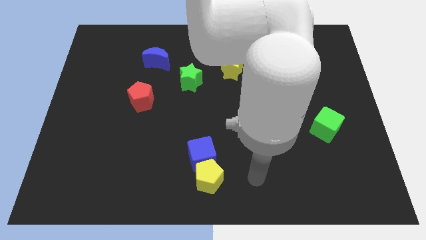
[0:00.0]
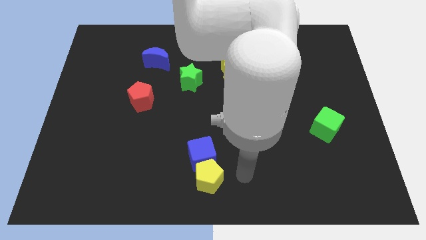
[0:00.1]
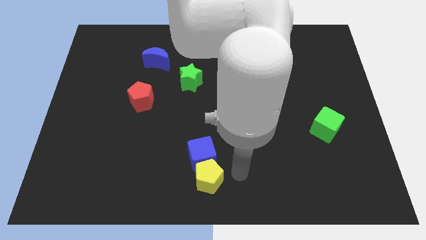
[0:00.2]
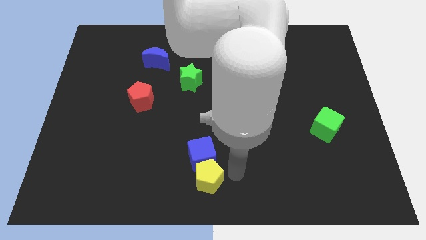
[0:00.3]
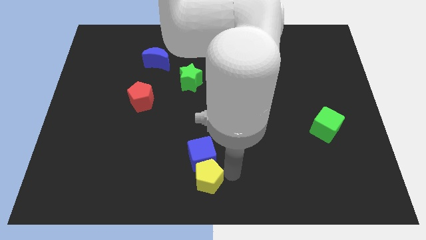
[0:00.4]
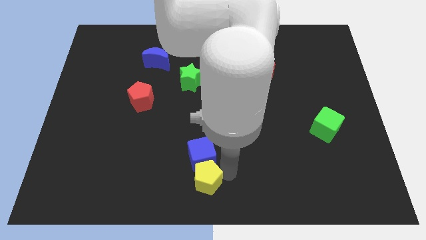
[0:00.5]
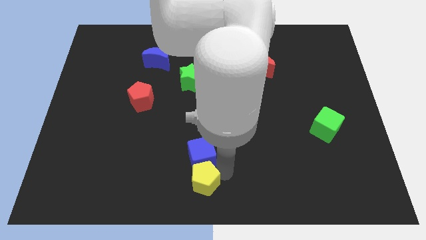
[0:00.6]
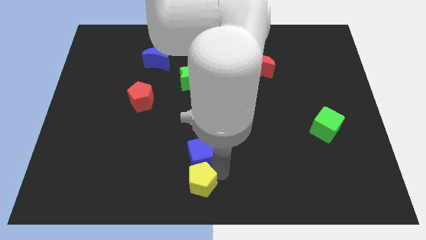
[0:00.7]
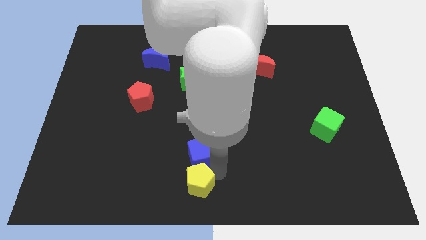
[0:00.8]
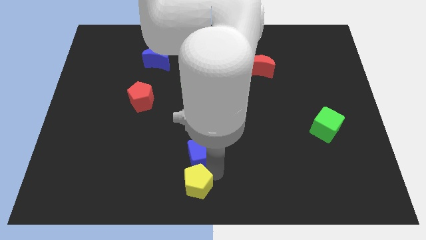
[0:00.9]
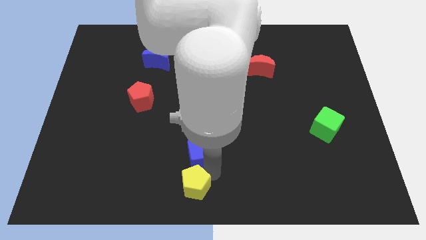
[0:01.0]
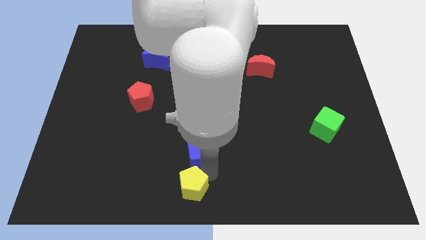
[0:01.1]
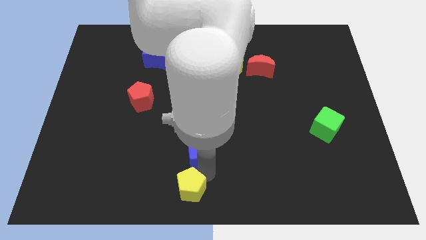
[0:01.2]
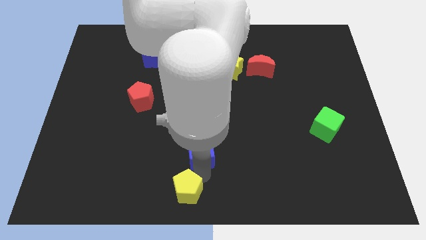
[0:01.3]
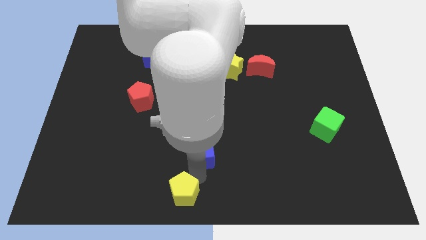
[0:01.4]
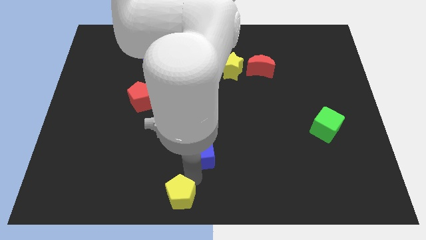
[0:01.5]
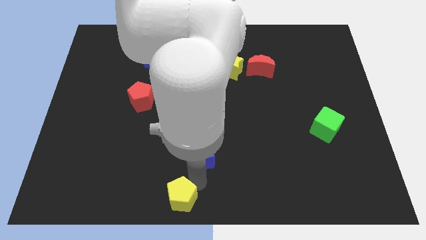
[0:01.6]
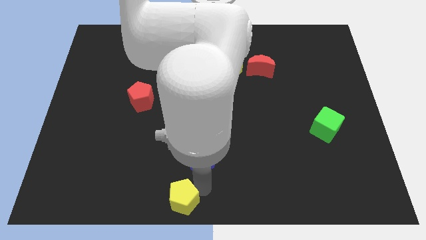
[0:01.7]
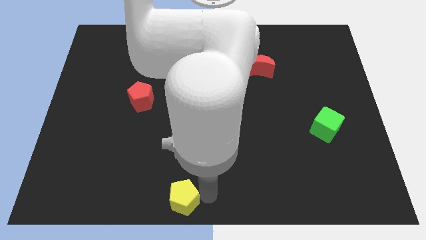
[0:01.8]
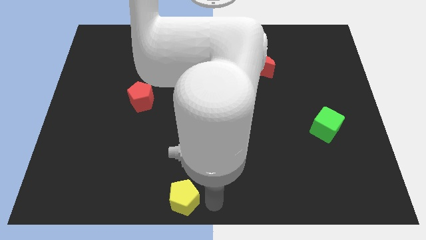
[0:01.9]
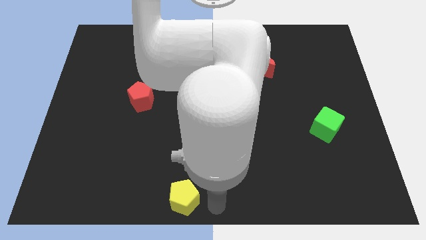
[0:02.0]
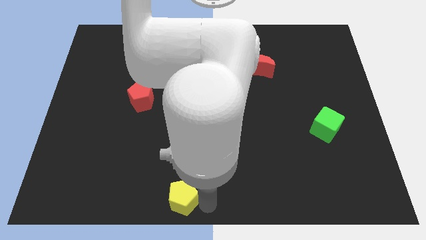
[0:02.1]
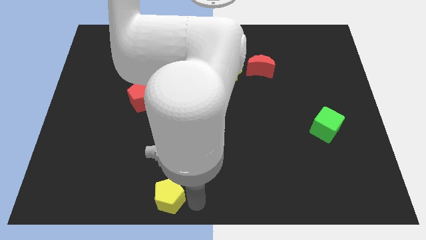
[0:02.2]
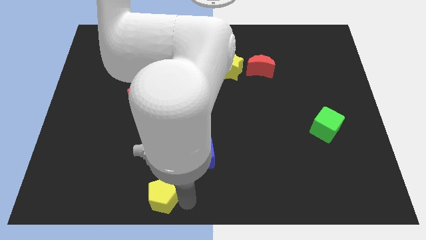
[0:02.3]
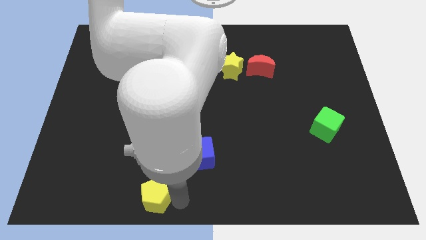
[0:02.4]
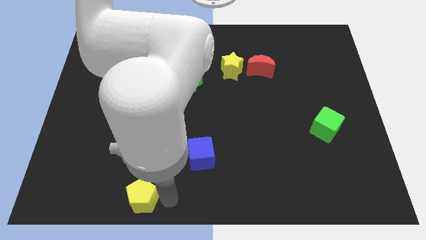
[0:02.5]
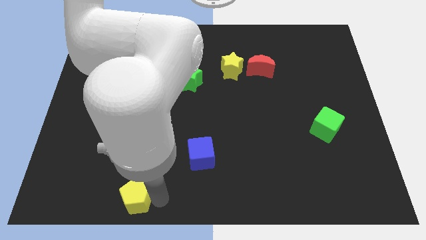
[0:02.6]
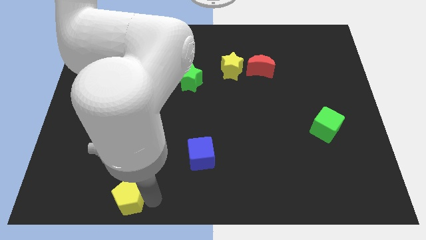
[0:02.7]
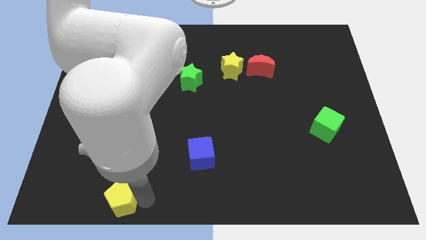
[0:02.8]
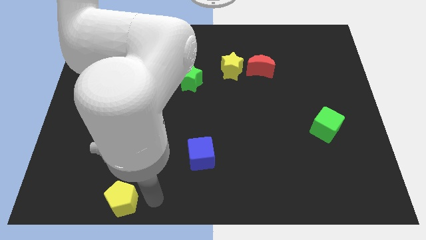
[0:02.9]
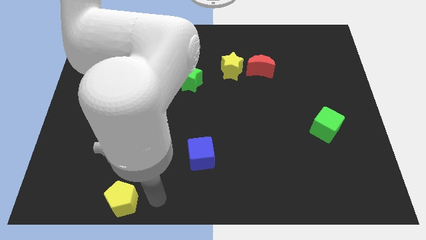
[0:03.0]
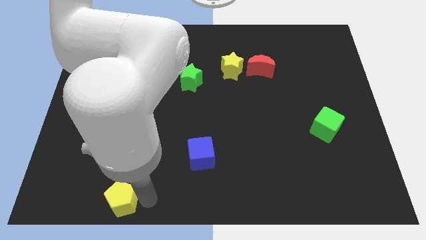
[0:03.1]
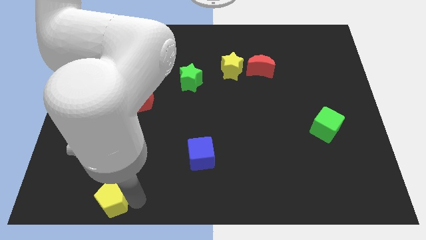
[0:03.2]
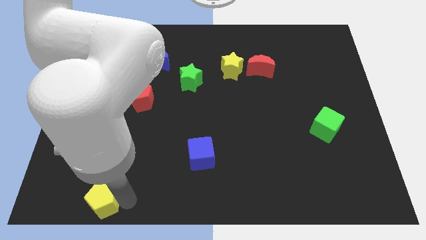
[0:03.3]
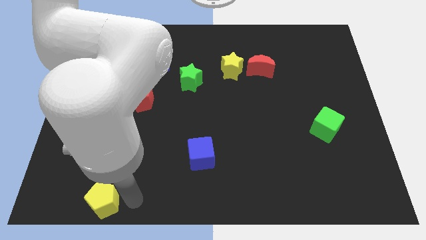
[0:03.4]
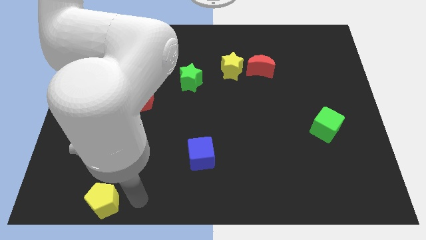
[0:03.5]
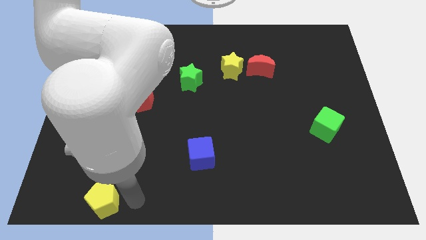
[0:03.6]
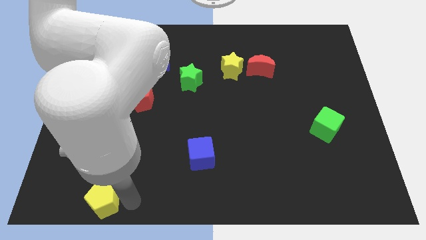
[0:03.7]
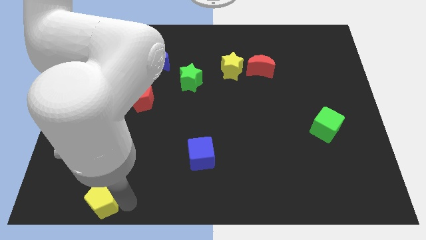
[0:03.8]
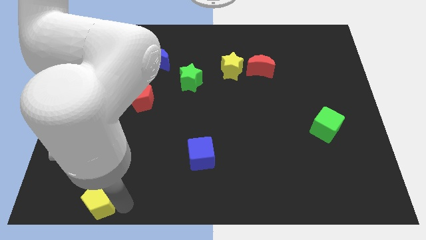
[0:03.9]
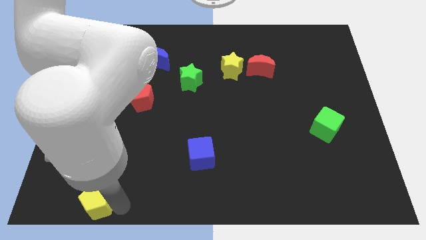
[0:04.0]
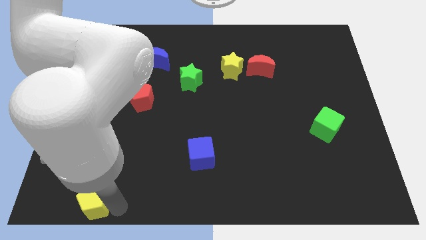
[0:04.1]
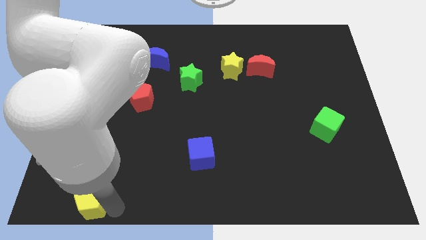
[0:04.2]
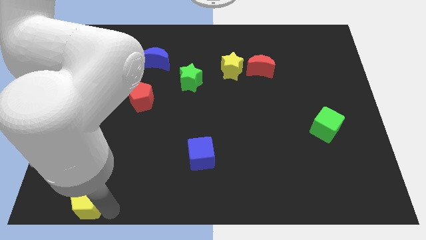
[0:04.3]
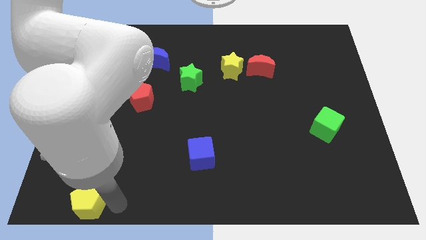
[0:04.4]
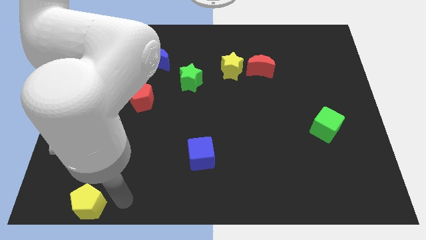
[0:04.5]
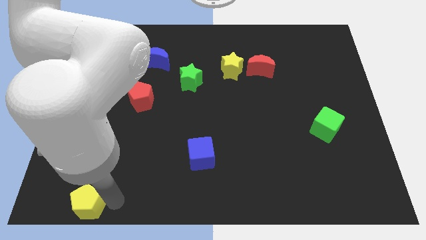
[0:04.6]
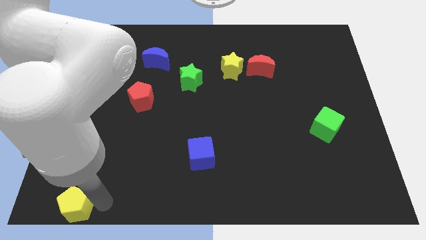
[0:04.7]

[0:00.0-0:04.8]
slide the yellow pentagon to the lower left corner

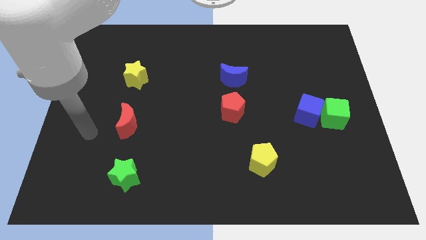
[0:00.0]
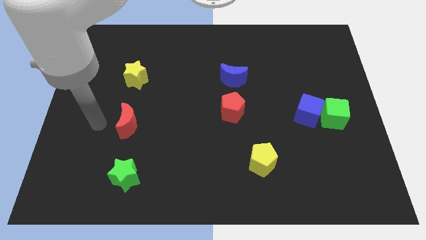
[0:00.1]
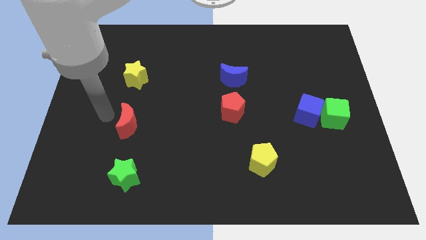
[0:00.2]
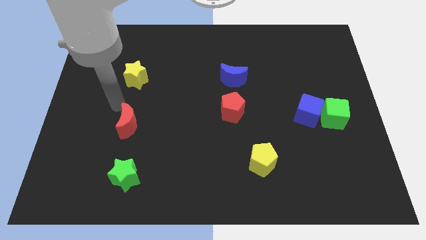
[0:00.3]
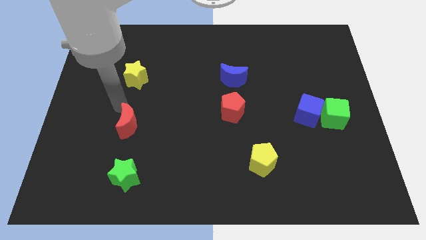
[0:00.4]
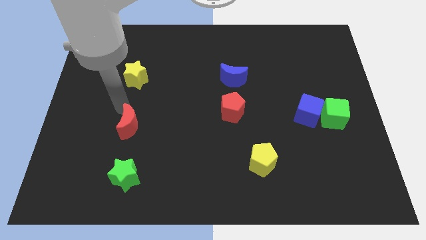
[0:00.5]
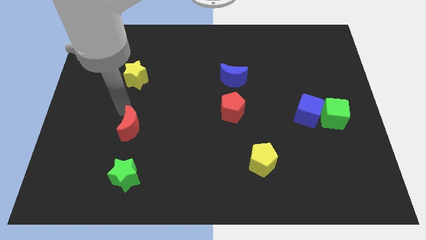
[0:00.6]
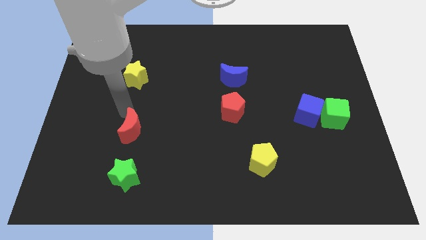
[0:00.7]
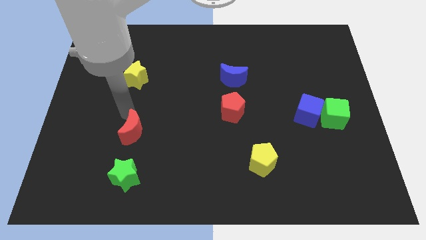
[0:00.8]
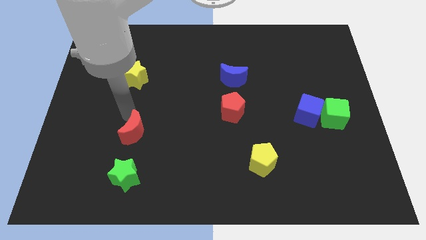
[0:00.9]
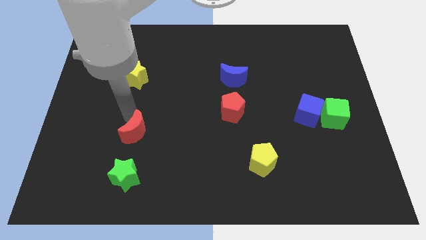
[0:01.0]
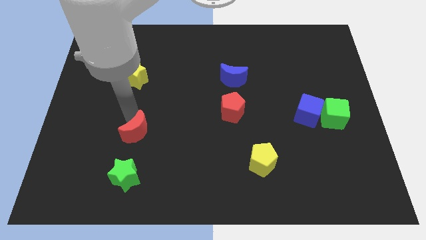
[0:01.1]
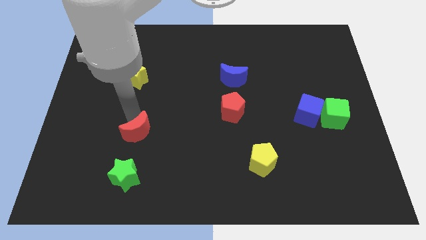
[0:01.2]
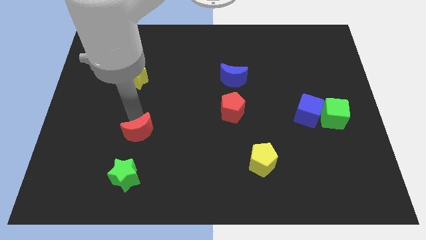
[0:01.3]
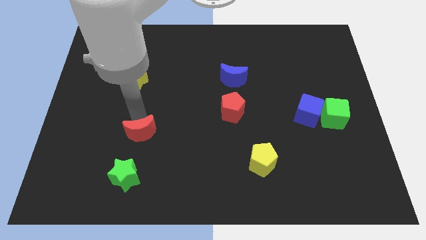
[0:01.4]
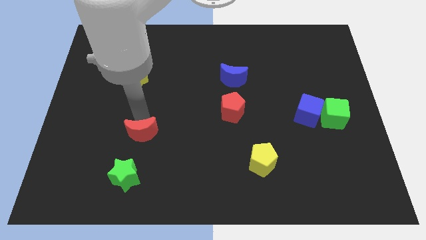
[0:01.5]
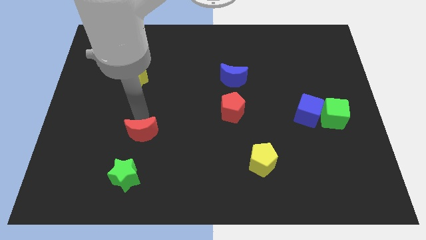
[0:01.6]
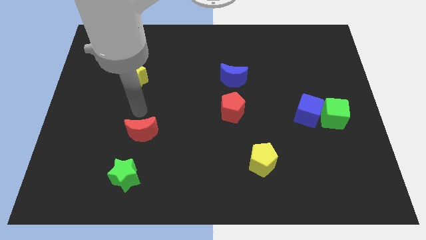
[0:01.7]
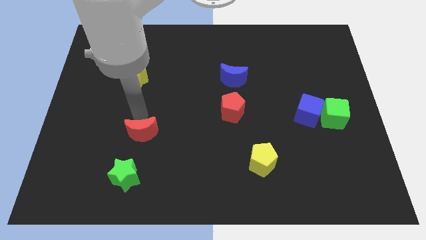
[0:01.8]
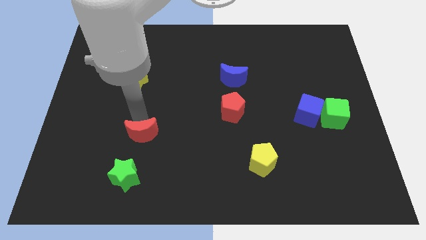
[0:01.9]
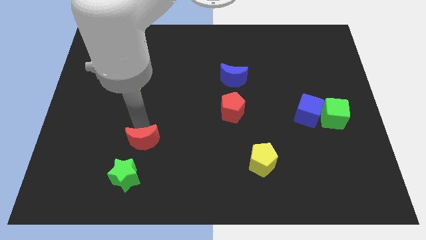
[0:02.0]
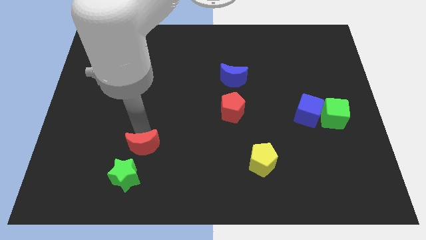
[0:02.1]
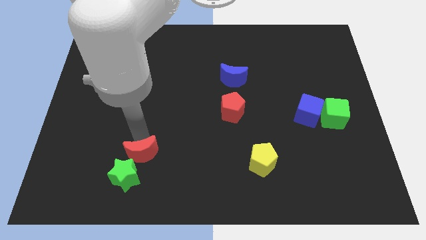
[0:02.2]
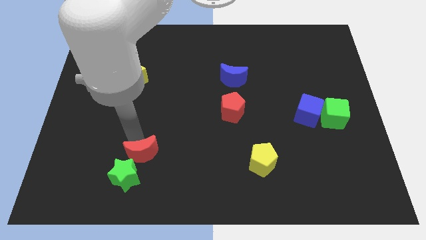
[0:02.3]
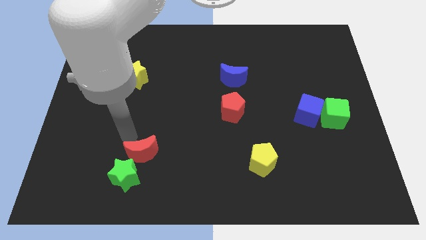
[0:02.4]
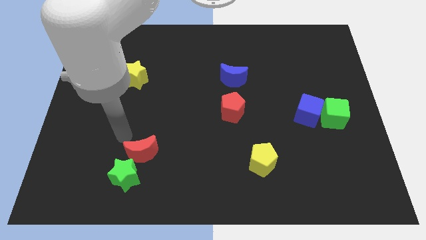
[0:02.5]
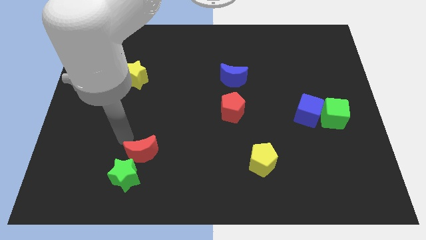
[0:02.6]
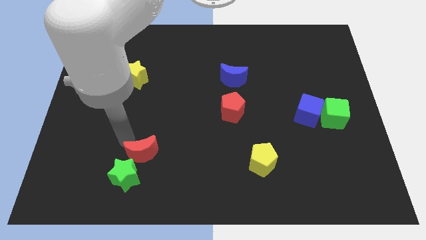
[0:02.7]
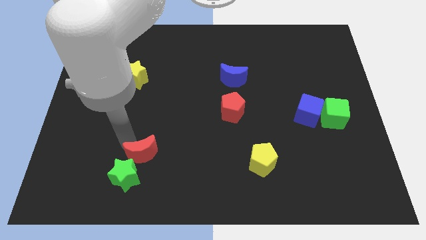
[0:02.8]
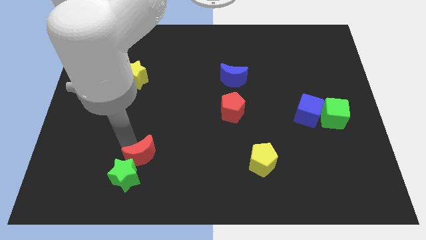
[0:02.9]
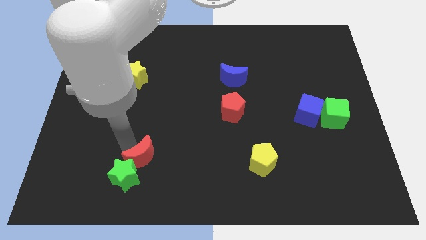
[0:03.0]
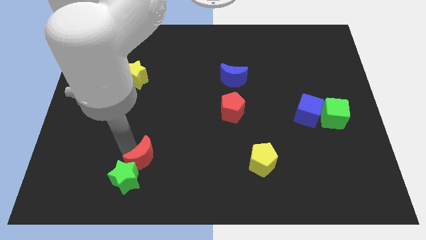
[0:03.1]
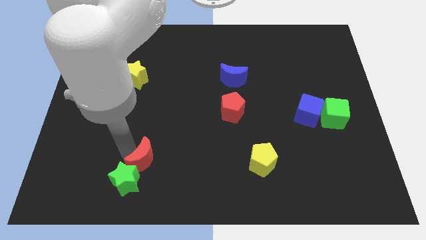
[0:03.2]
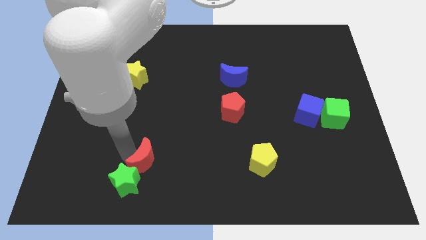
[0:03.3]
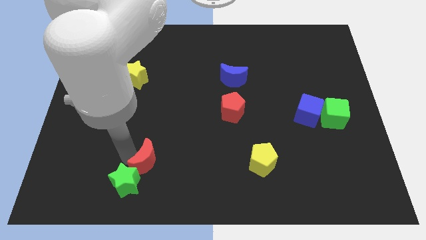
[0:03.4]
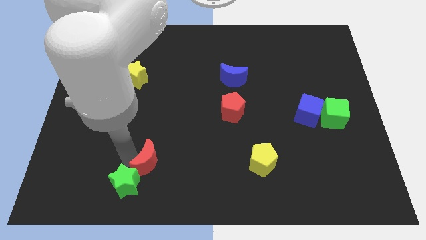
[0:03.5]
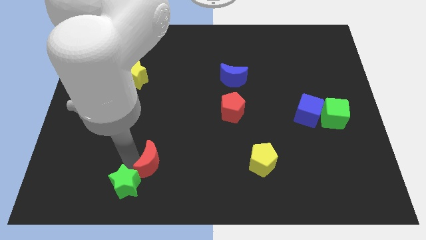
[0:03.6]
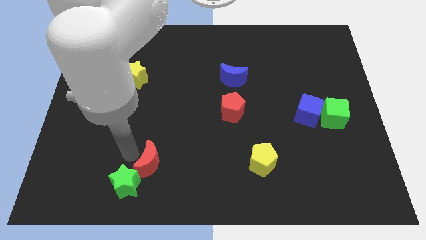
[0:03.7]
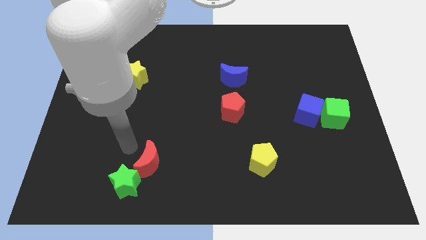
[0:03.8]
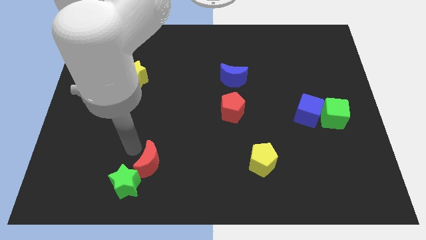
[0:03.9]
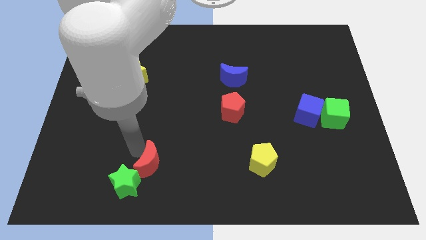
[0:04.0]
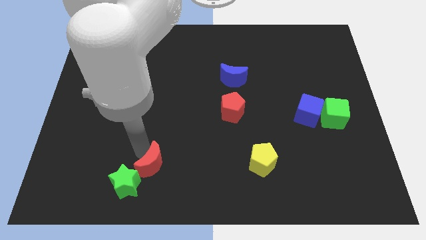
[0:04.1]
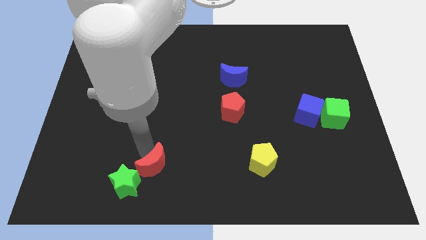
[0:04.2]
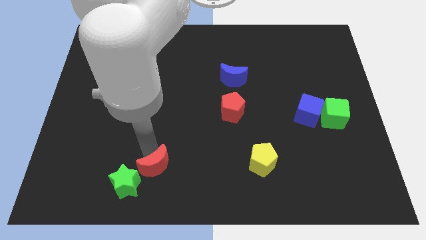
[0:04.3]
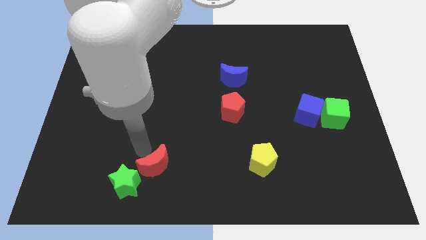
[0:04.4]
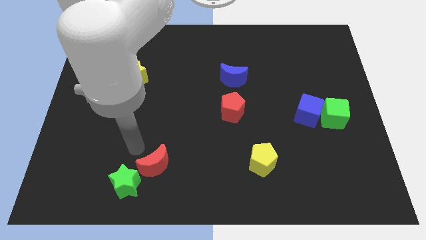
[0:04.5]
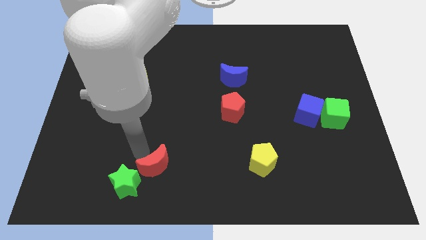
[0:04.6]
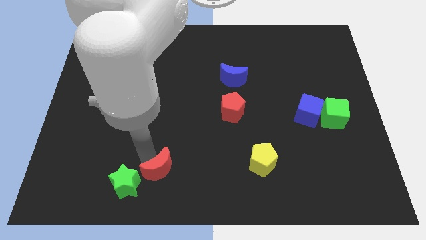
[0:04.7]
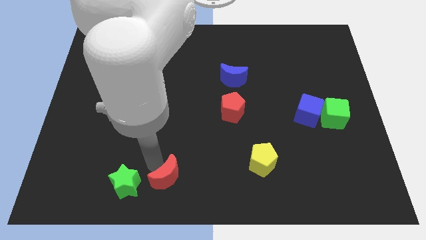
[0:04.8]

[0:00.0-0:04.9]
move the red moon to the bottom
